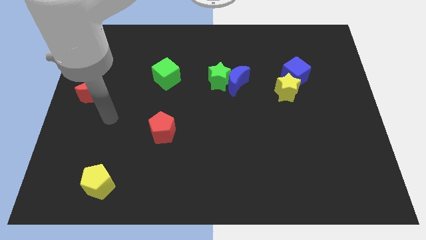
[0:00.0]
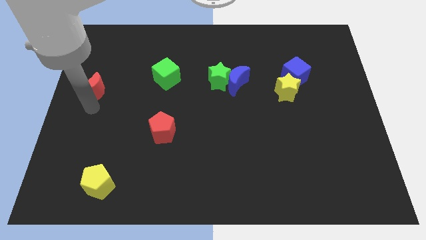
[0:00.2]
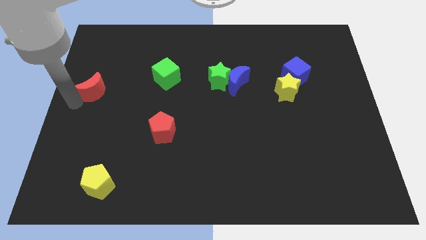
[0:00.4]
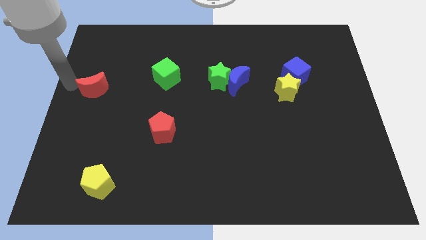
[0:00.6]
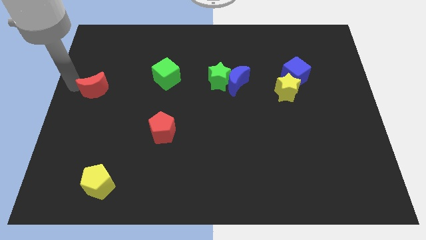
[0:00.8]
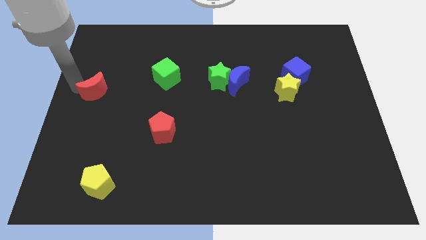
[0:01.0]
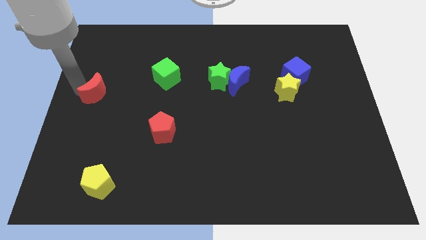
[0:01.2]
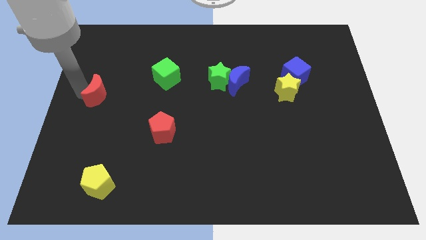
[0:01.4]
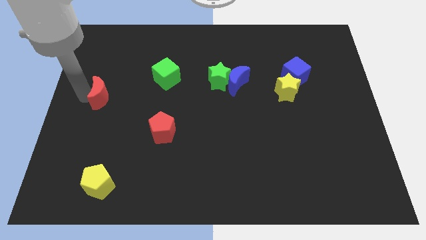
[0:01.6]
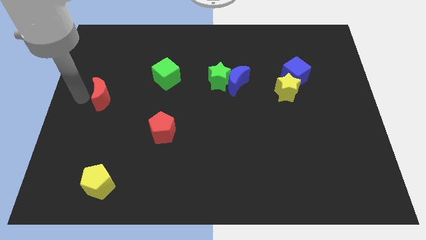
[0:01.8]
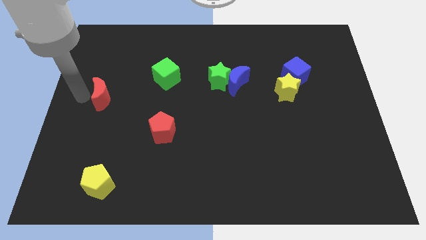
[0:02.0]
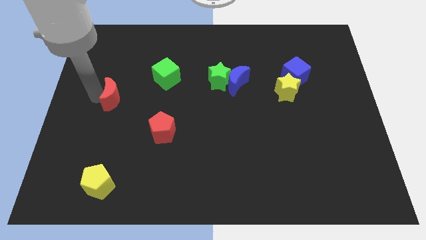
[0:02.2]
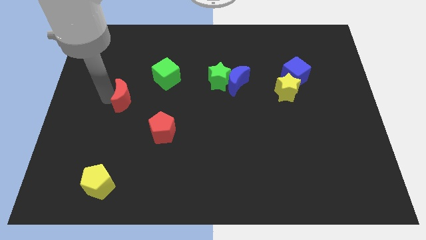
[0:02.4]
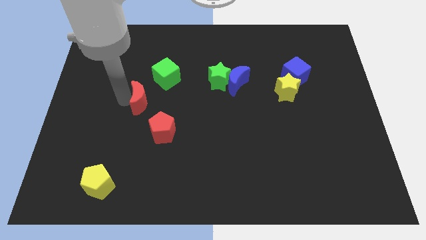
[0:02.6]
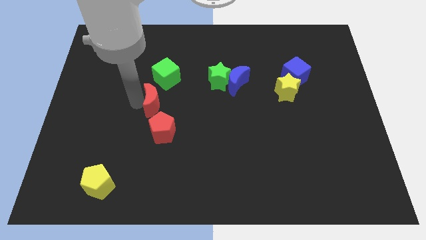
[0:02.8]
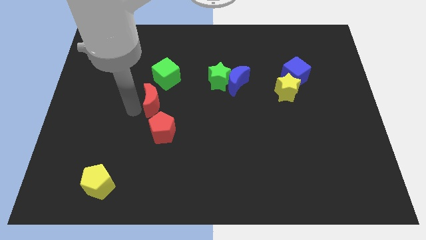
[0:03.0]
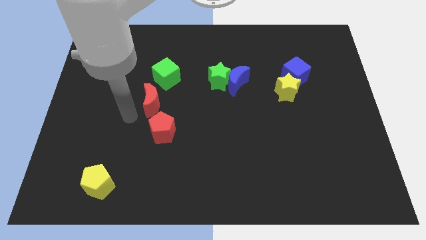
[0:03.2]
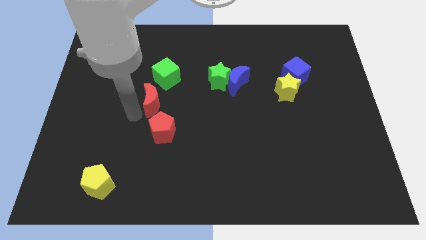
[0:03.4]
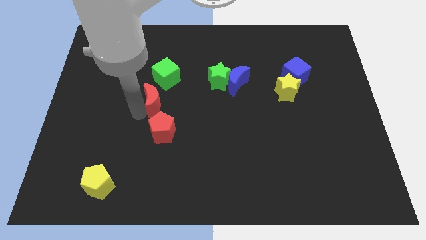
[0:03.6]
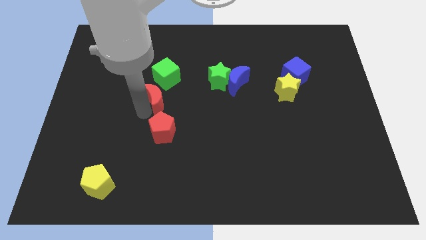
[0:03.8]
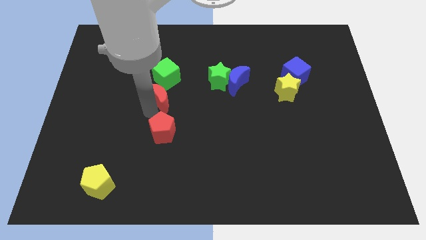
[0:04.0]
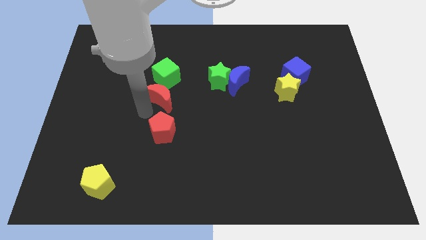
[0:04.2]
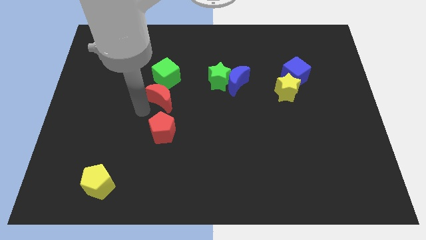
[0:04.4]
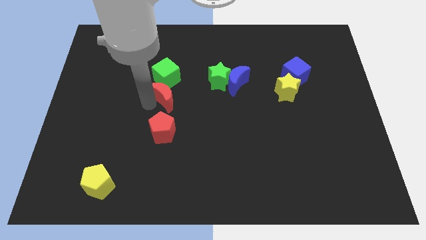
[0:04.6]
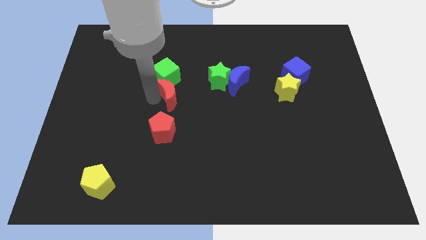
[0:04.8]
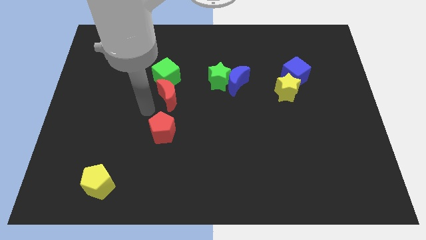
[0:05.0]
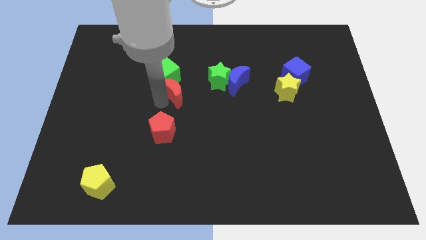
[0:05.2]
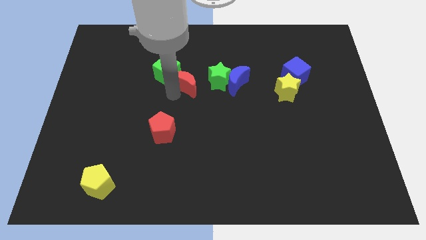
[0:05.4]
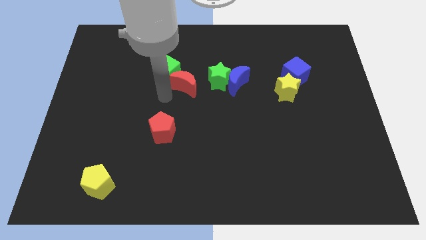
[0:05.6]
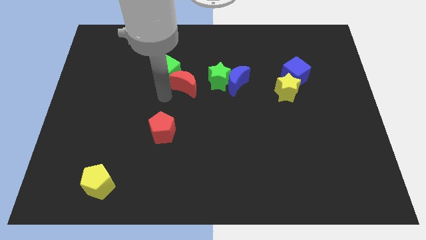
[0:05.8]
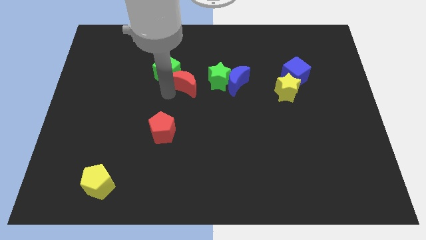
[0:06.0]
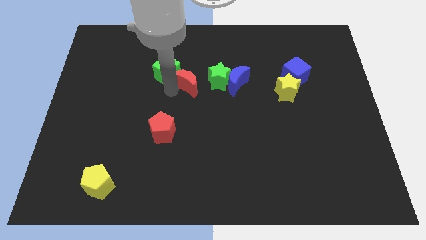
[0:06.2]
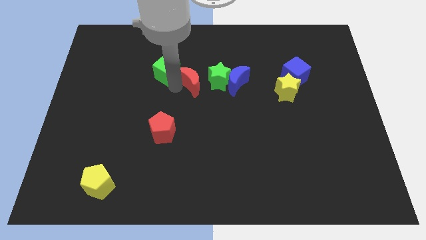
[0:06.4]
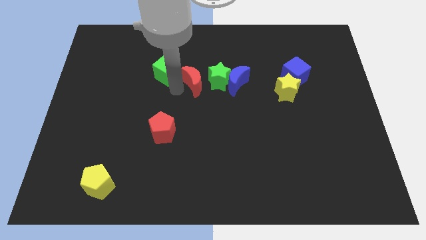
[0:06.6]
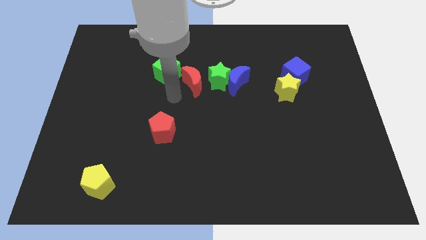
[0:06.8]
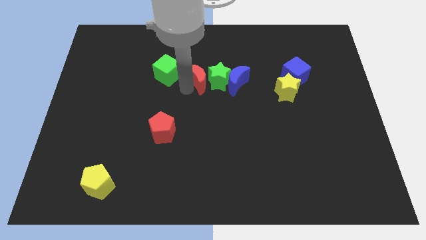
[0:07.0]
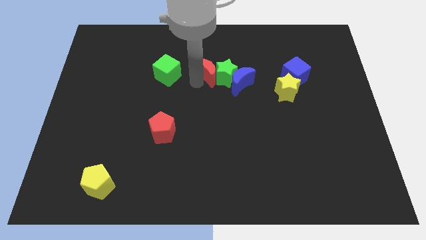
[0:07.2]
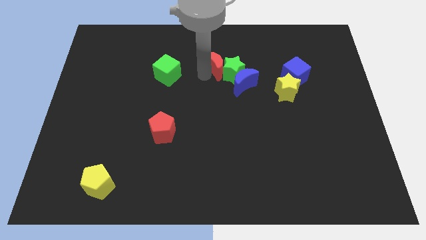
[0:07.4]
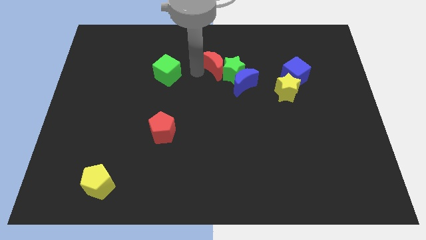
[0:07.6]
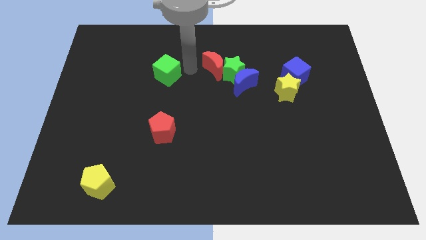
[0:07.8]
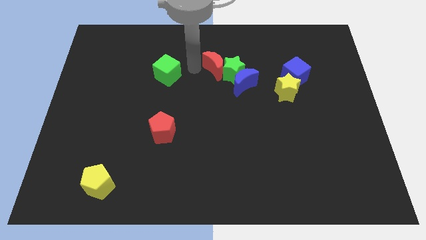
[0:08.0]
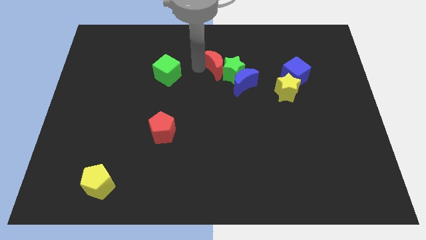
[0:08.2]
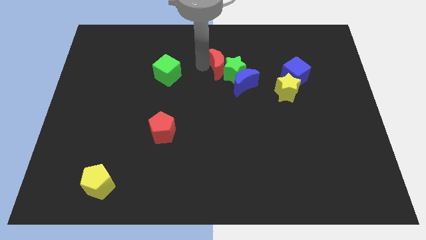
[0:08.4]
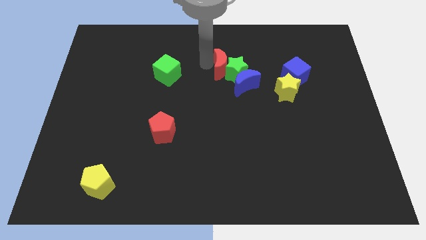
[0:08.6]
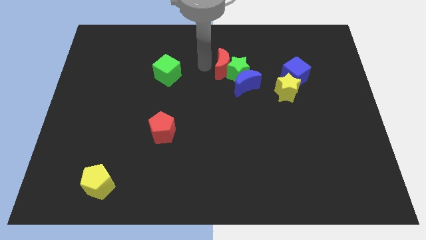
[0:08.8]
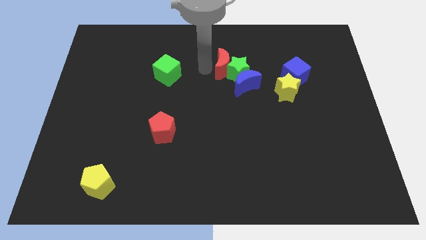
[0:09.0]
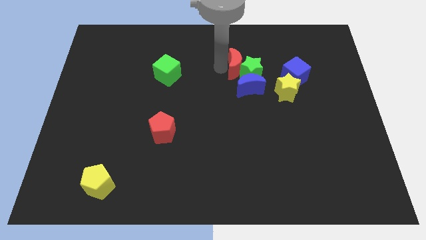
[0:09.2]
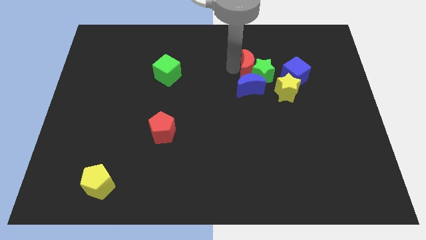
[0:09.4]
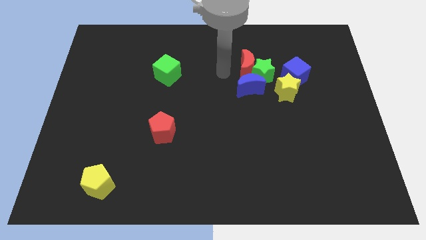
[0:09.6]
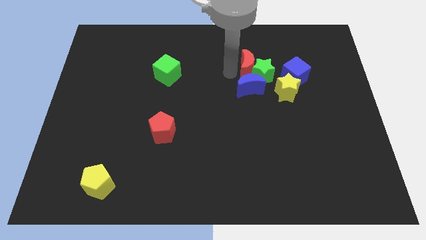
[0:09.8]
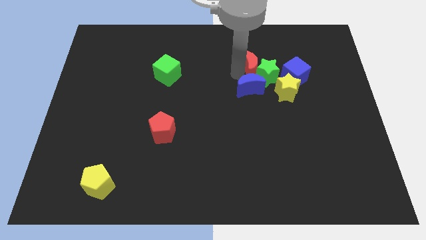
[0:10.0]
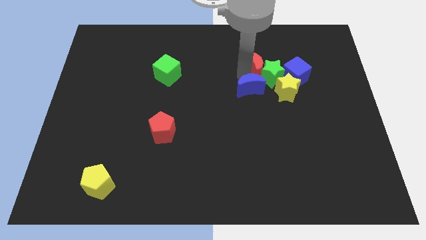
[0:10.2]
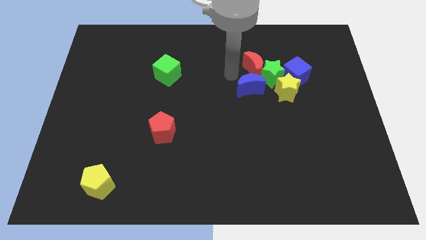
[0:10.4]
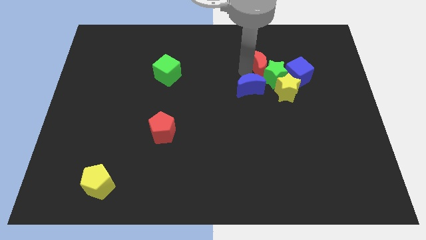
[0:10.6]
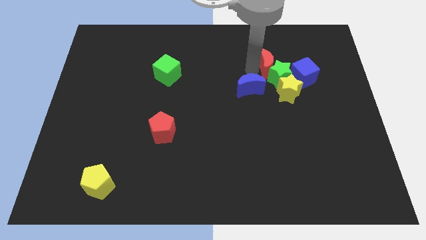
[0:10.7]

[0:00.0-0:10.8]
put the red moon to the top side of the yellow star
